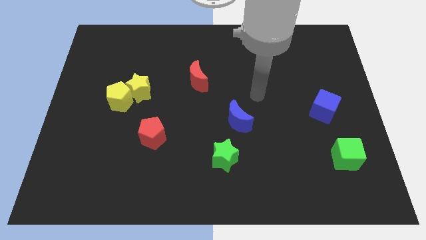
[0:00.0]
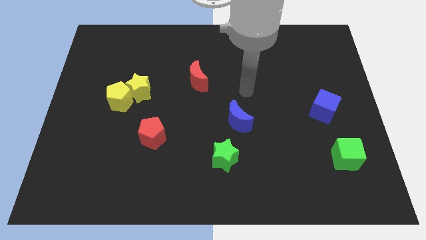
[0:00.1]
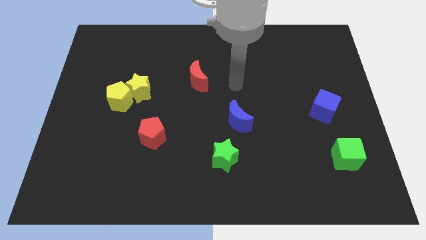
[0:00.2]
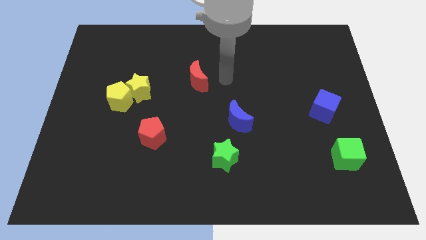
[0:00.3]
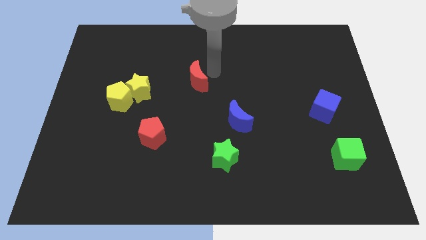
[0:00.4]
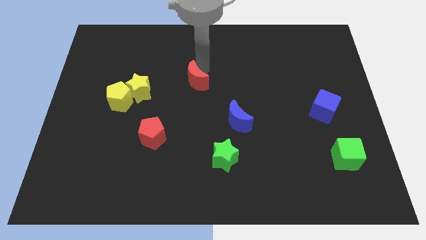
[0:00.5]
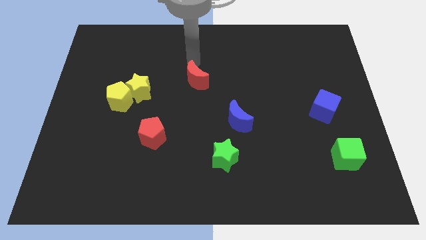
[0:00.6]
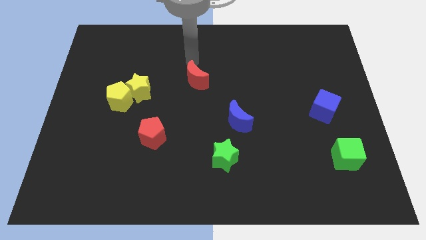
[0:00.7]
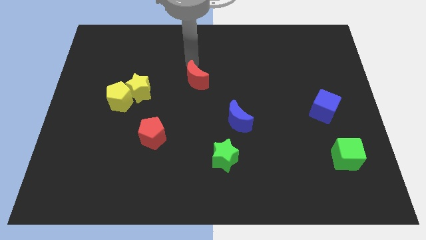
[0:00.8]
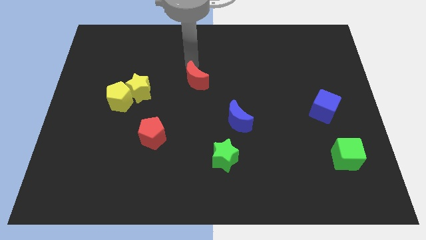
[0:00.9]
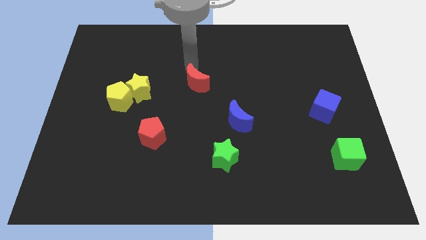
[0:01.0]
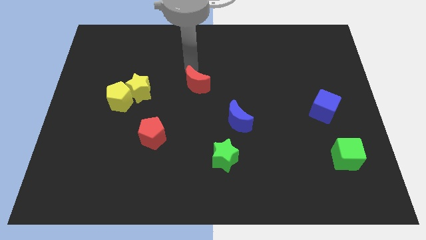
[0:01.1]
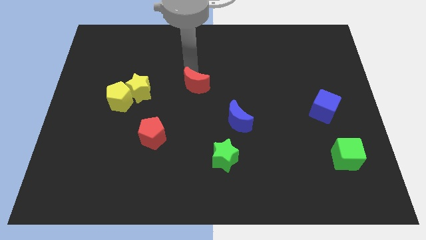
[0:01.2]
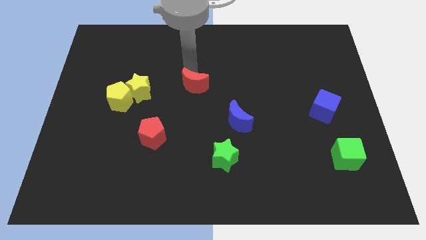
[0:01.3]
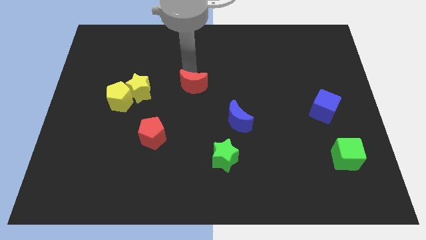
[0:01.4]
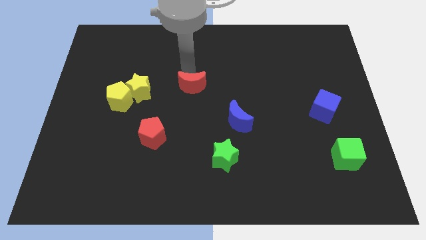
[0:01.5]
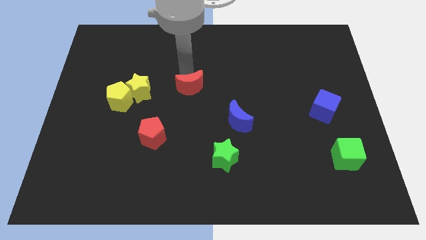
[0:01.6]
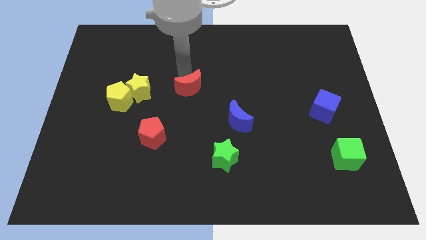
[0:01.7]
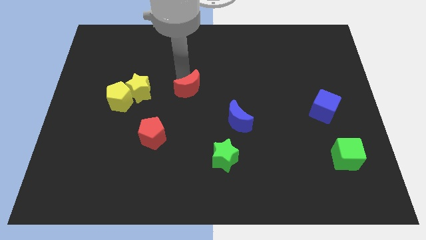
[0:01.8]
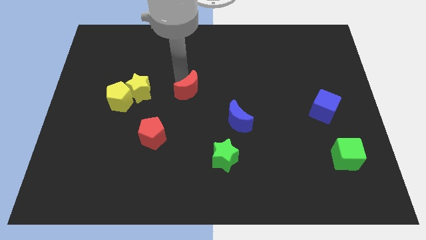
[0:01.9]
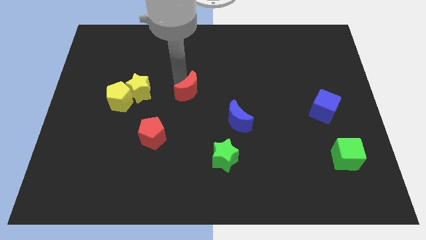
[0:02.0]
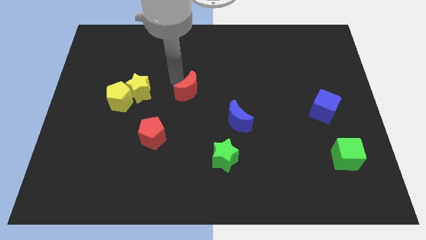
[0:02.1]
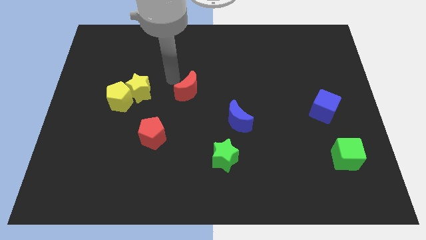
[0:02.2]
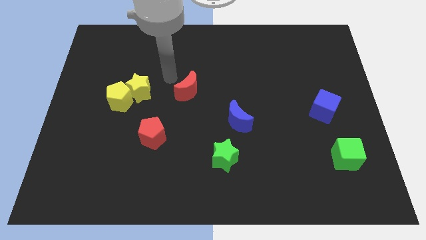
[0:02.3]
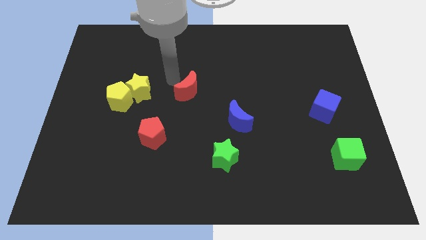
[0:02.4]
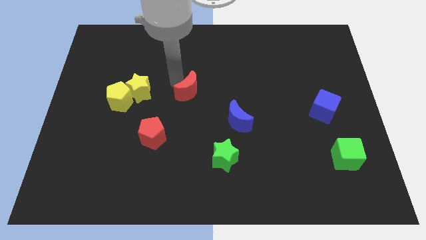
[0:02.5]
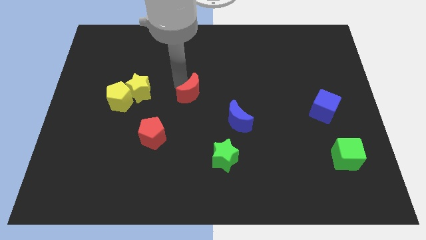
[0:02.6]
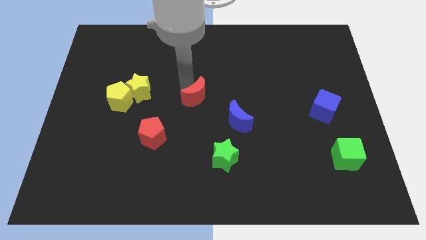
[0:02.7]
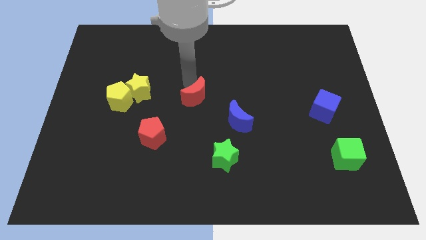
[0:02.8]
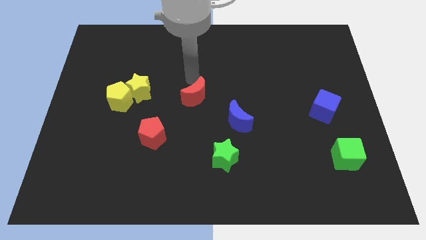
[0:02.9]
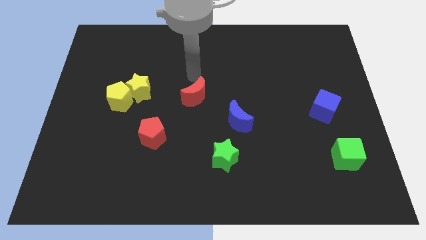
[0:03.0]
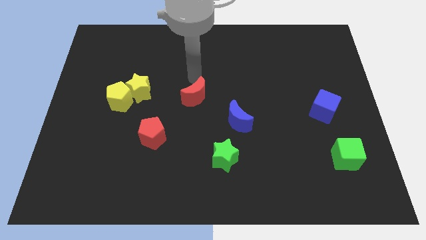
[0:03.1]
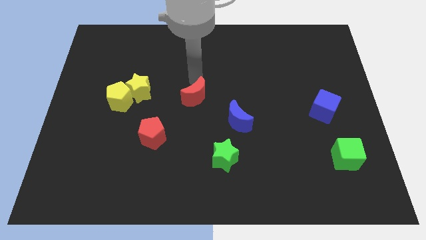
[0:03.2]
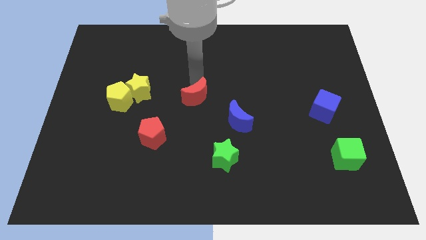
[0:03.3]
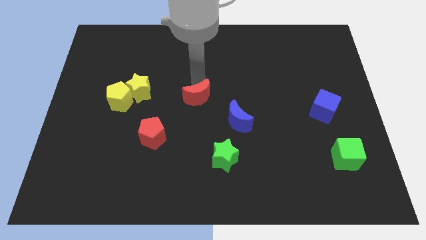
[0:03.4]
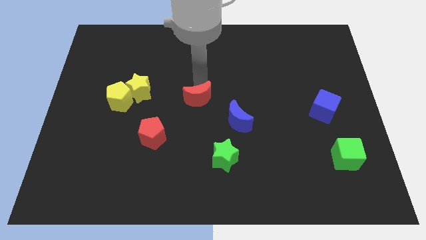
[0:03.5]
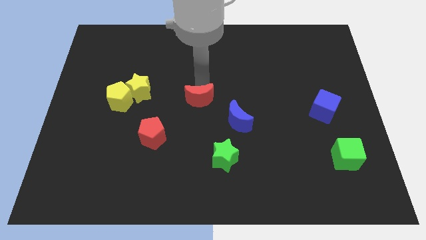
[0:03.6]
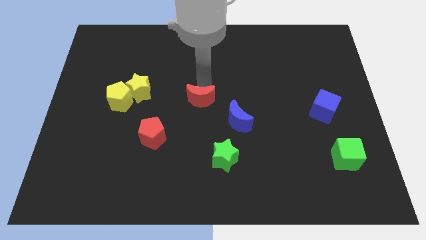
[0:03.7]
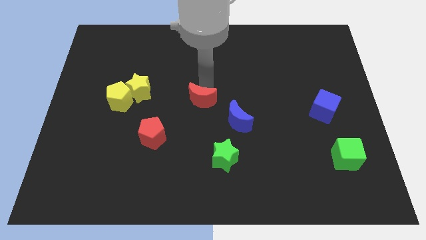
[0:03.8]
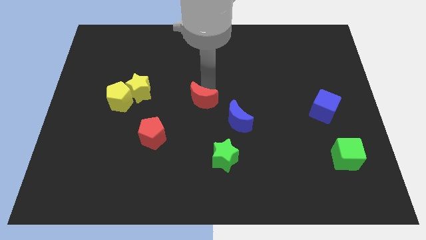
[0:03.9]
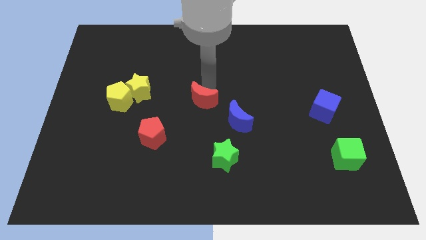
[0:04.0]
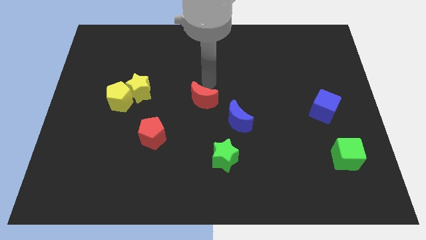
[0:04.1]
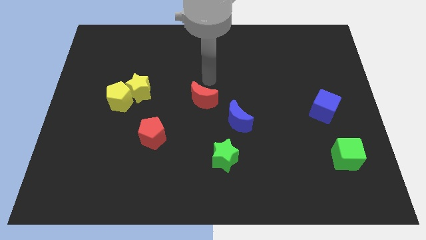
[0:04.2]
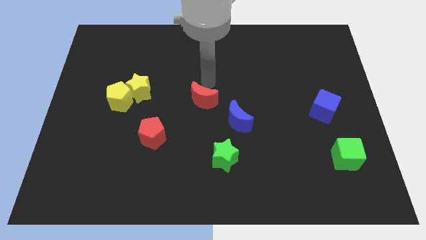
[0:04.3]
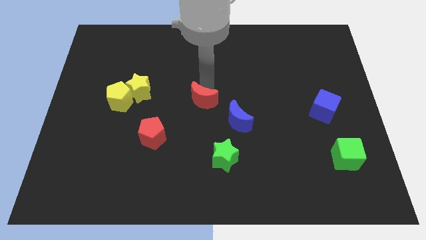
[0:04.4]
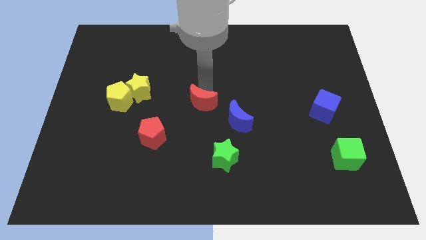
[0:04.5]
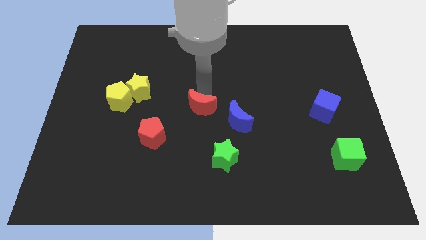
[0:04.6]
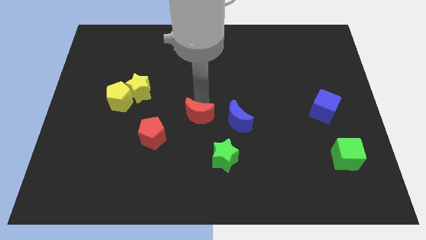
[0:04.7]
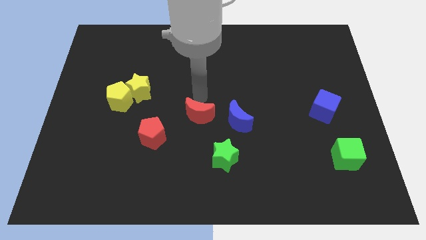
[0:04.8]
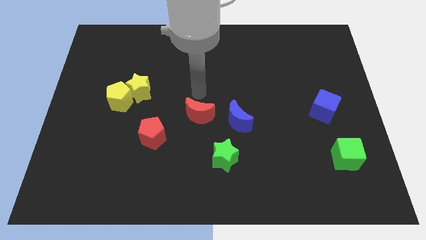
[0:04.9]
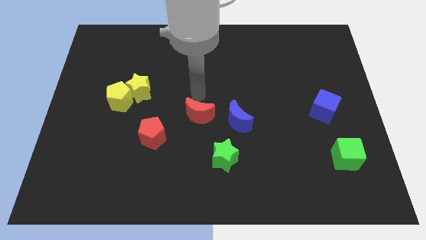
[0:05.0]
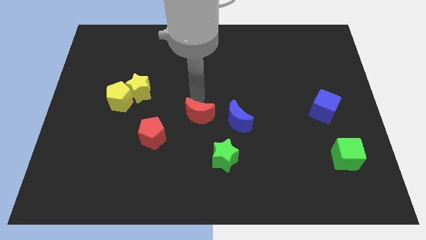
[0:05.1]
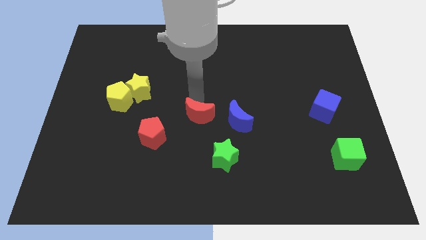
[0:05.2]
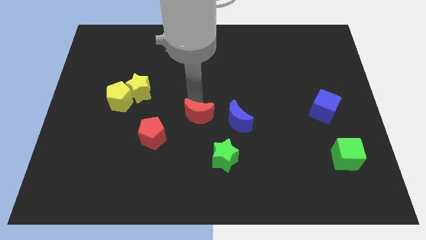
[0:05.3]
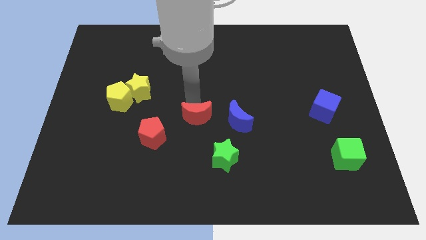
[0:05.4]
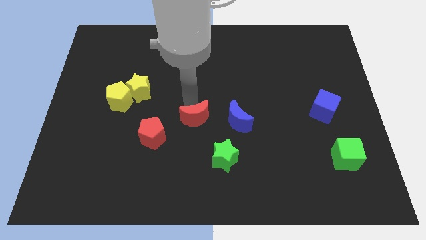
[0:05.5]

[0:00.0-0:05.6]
put the red moon to the right of the red pentagon

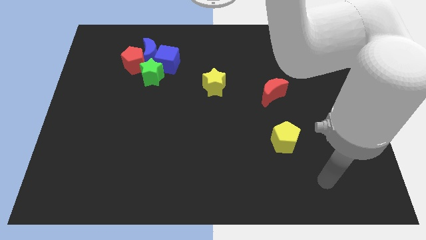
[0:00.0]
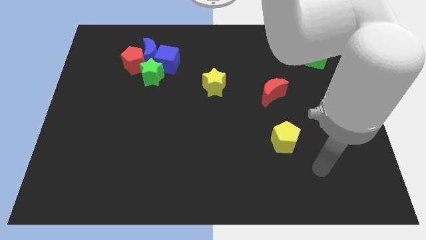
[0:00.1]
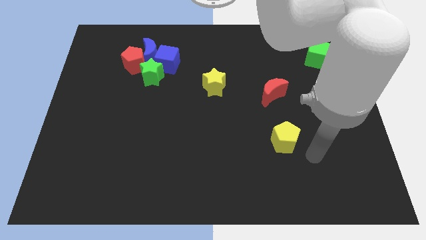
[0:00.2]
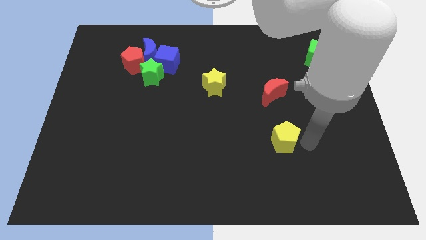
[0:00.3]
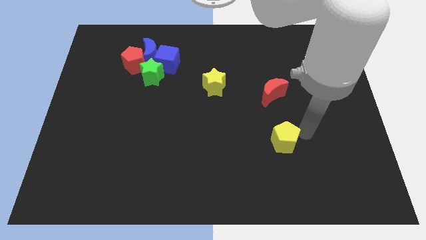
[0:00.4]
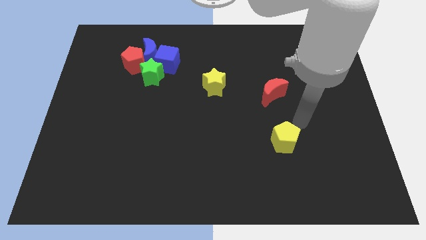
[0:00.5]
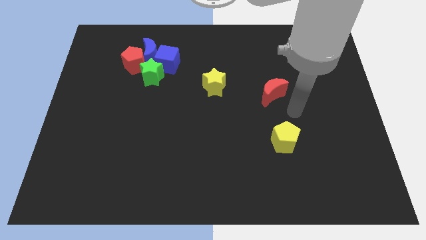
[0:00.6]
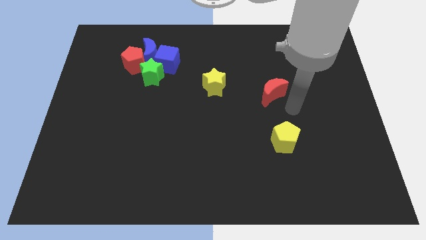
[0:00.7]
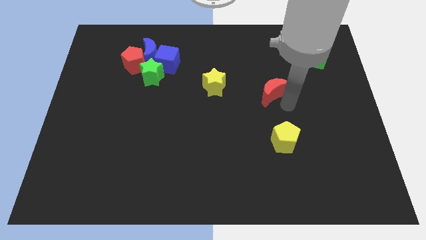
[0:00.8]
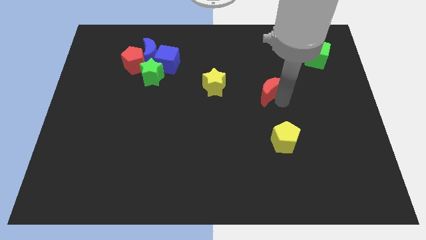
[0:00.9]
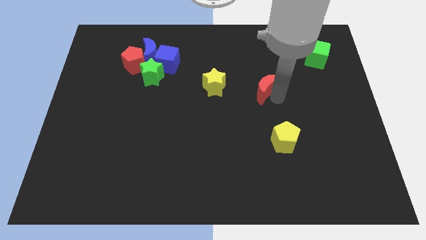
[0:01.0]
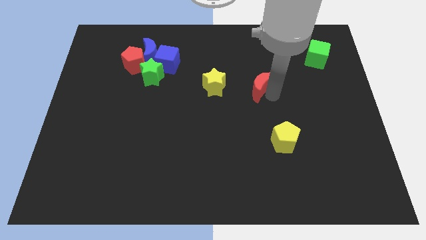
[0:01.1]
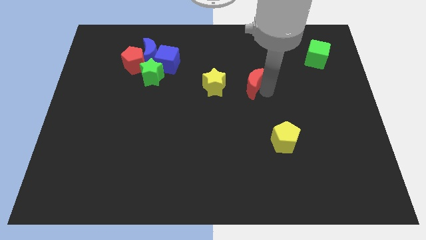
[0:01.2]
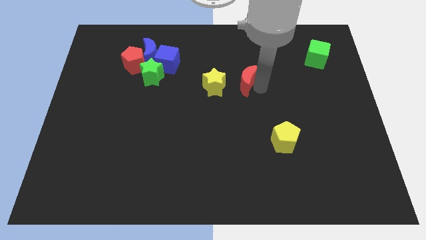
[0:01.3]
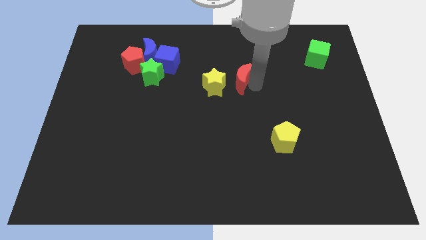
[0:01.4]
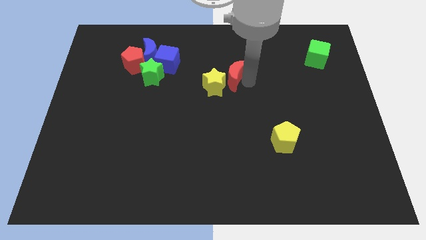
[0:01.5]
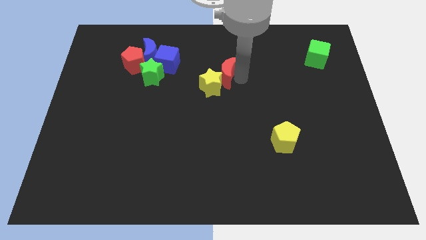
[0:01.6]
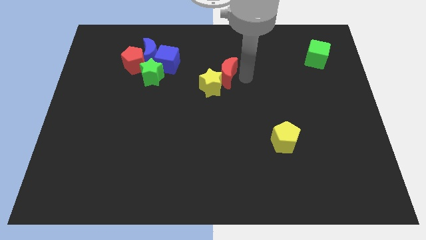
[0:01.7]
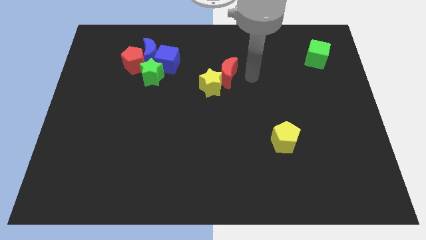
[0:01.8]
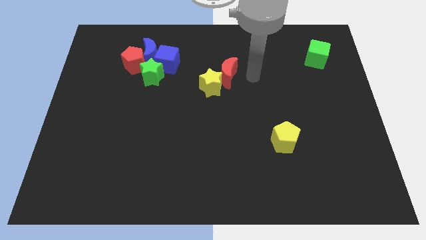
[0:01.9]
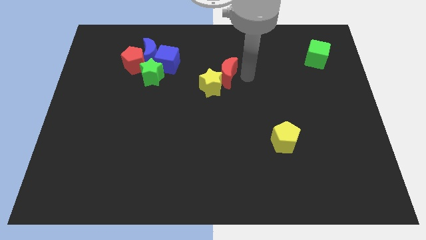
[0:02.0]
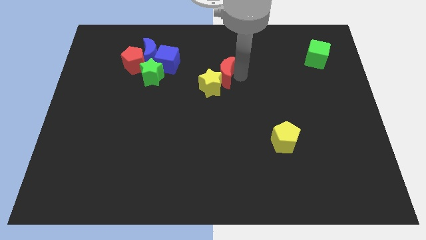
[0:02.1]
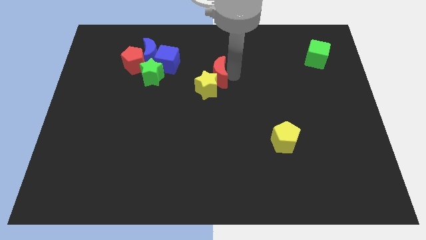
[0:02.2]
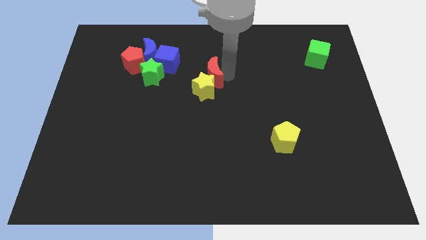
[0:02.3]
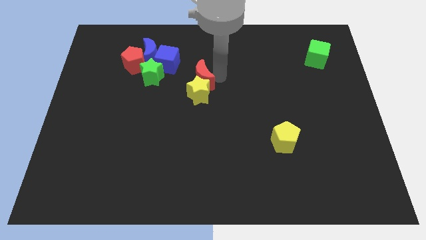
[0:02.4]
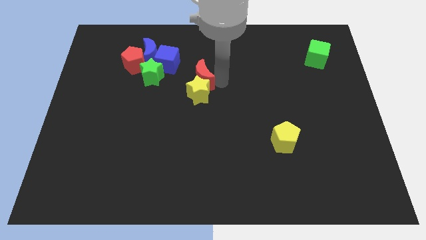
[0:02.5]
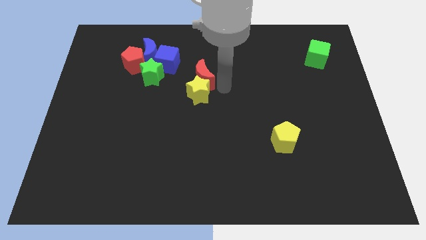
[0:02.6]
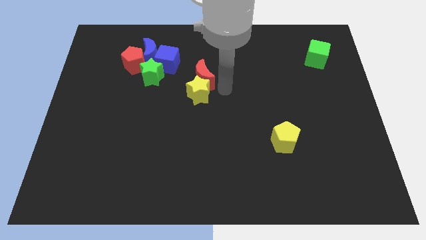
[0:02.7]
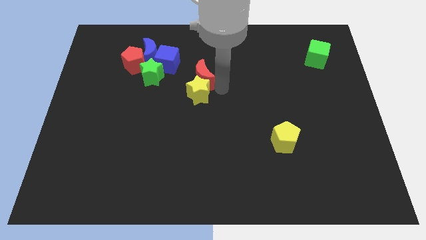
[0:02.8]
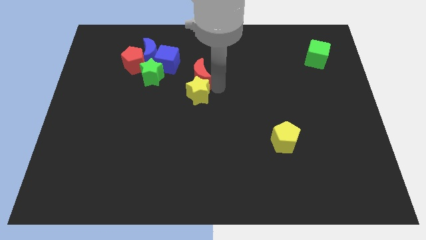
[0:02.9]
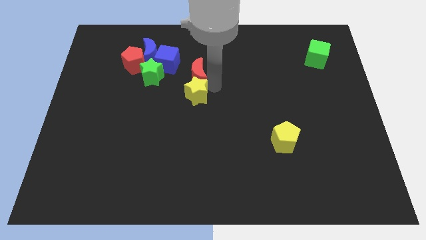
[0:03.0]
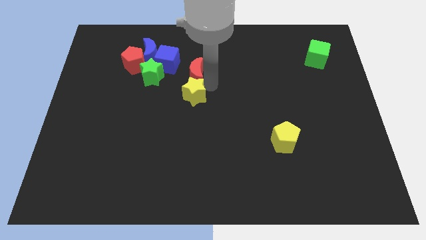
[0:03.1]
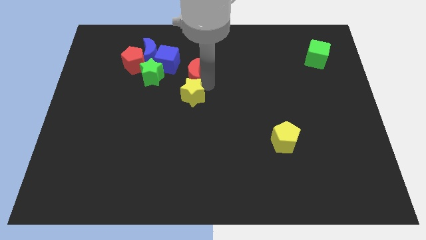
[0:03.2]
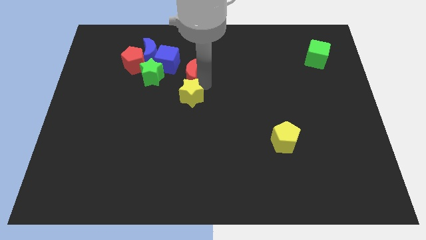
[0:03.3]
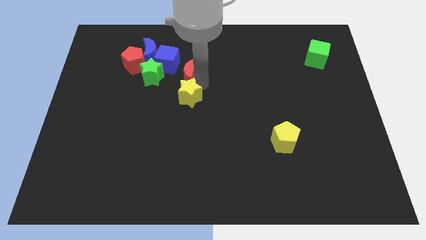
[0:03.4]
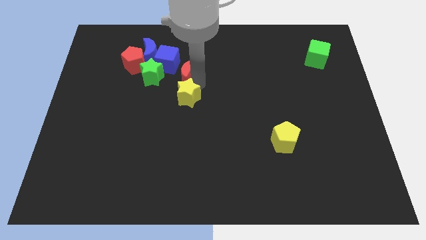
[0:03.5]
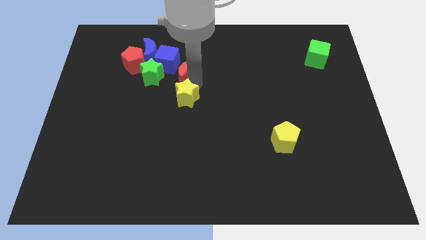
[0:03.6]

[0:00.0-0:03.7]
move the red moon to the right of the red pentagon
